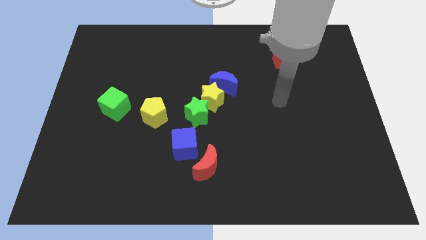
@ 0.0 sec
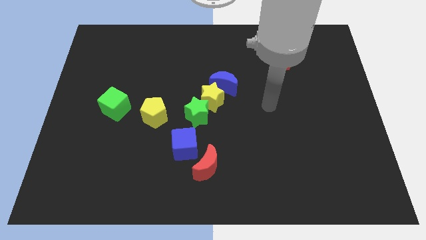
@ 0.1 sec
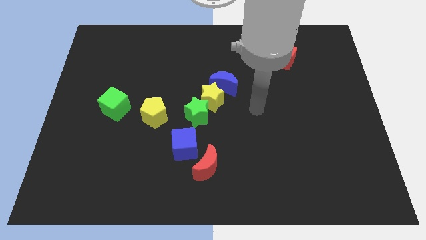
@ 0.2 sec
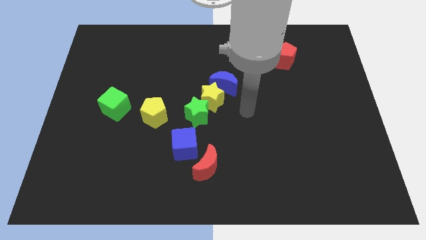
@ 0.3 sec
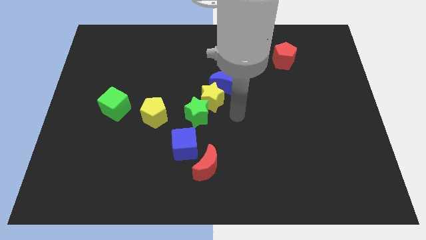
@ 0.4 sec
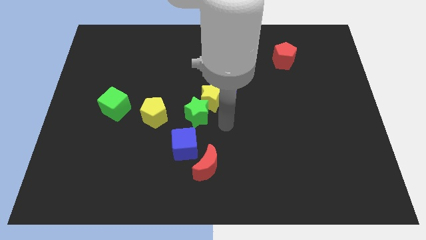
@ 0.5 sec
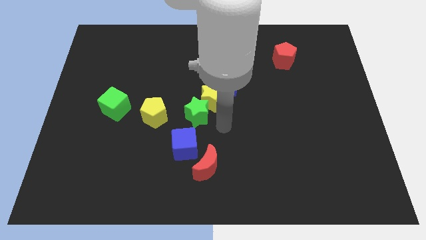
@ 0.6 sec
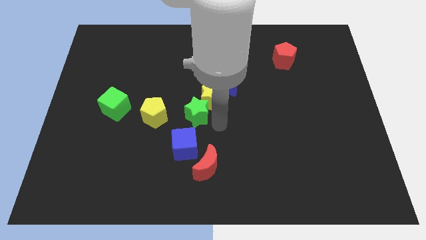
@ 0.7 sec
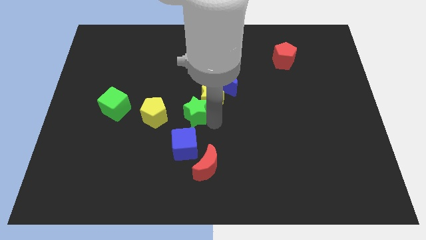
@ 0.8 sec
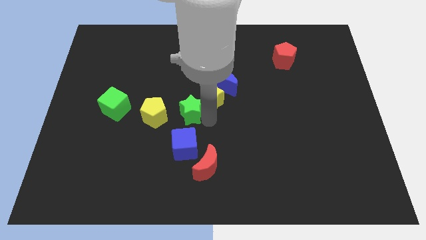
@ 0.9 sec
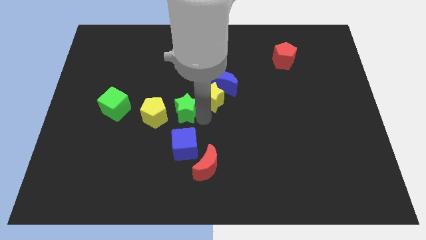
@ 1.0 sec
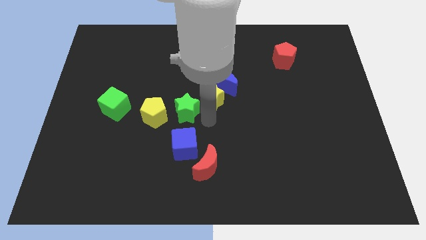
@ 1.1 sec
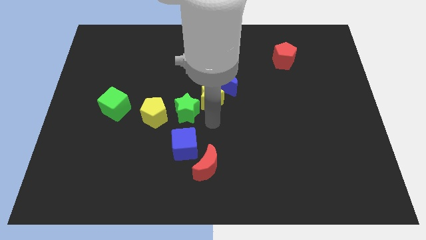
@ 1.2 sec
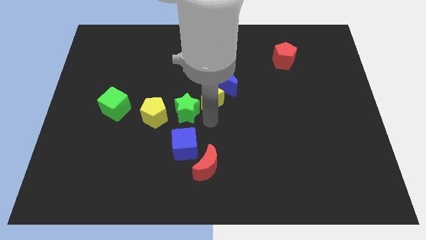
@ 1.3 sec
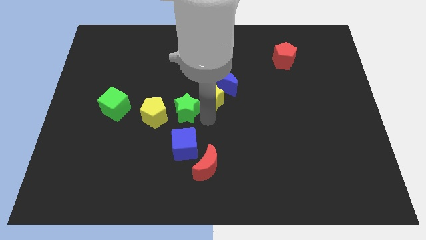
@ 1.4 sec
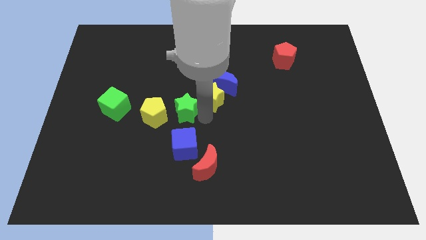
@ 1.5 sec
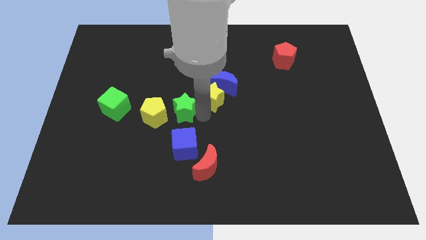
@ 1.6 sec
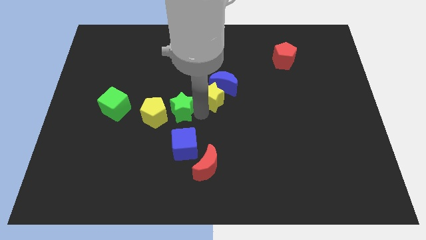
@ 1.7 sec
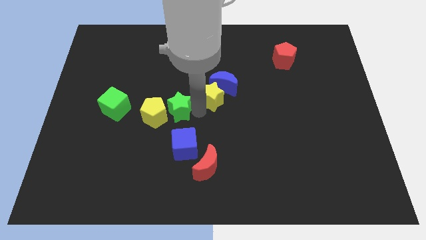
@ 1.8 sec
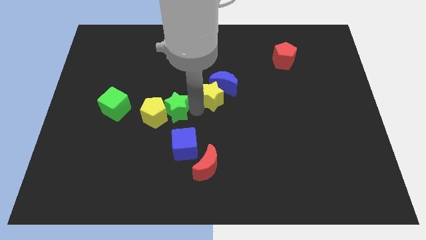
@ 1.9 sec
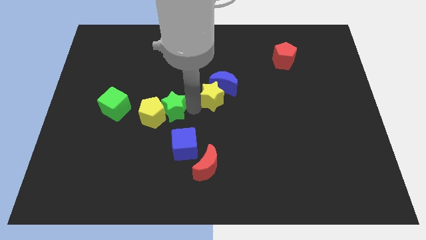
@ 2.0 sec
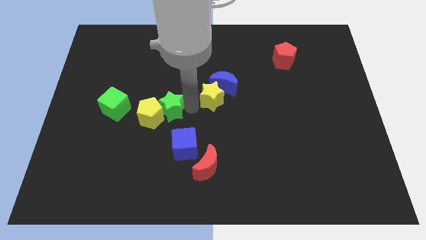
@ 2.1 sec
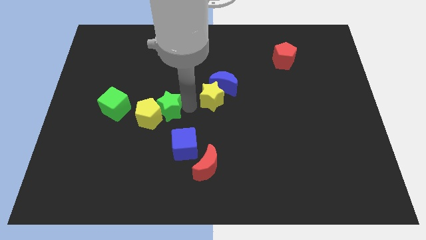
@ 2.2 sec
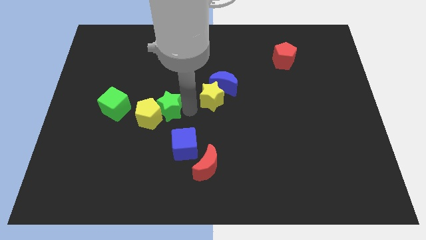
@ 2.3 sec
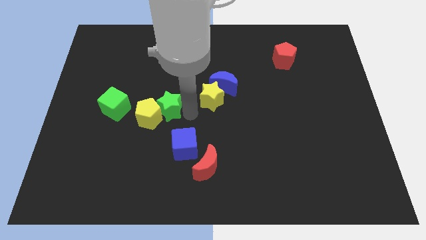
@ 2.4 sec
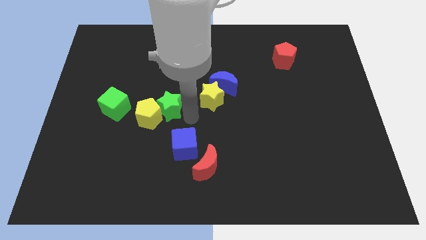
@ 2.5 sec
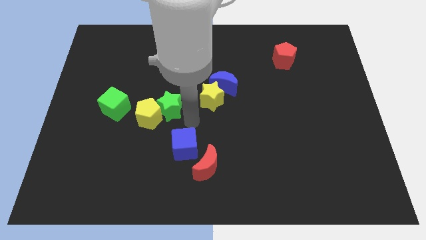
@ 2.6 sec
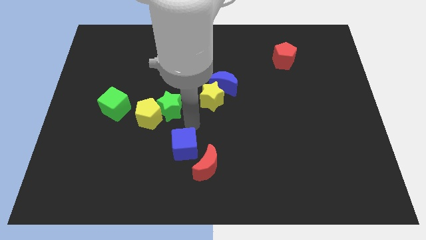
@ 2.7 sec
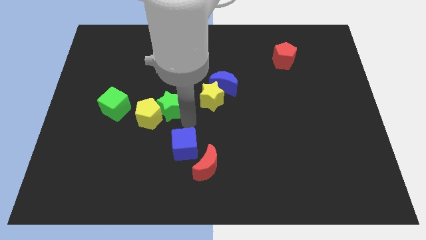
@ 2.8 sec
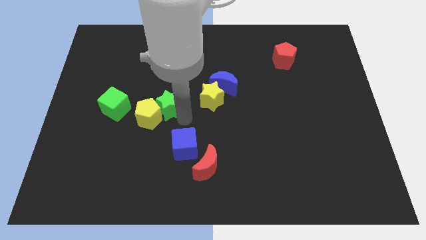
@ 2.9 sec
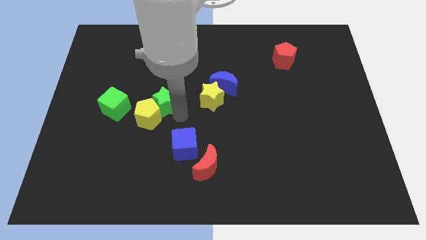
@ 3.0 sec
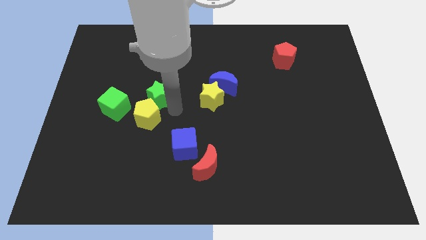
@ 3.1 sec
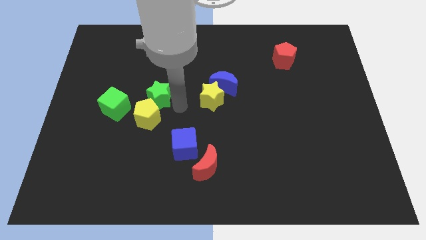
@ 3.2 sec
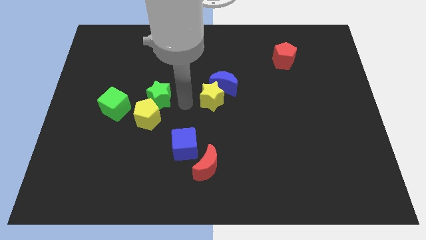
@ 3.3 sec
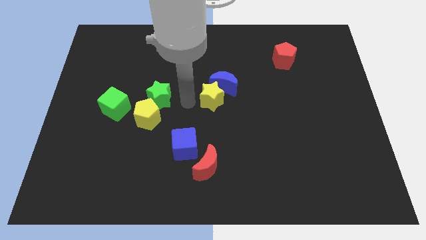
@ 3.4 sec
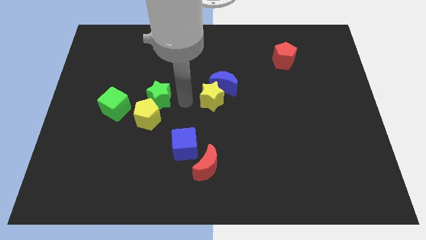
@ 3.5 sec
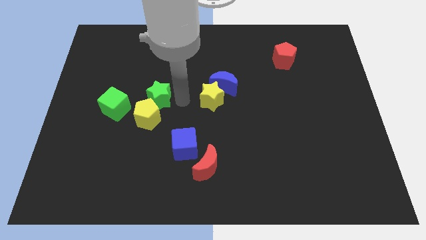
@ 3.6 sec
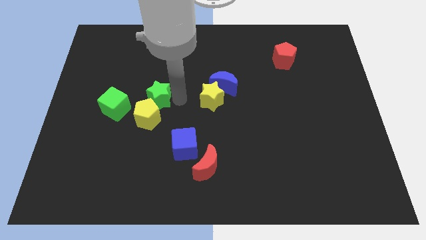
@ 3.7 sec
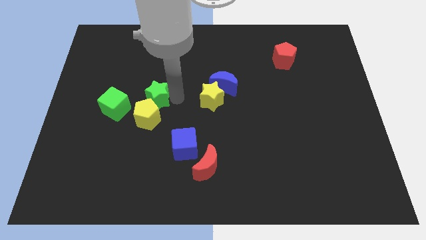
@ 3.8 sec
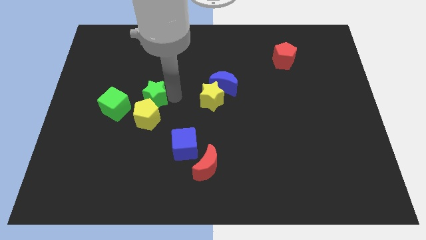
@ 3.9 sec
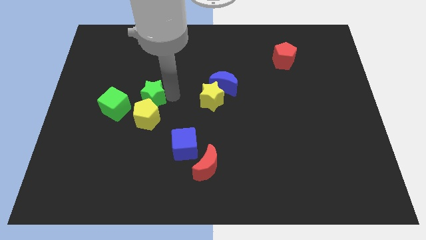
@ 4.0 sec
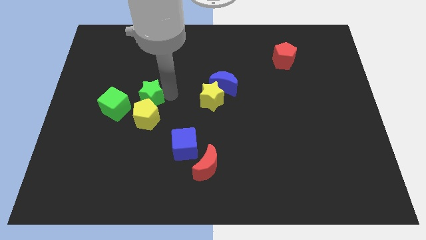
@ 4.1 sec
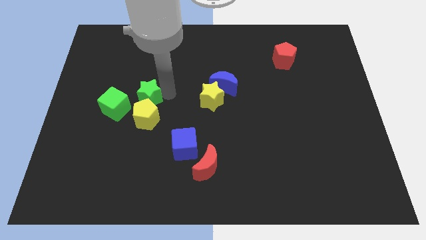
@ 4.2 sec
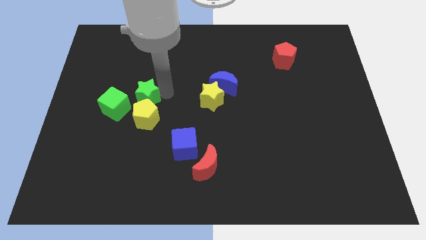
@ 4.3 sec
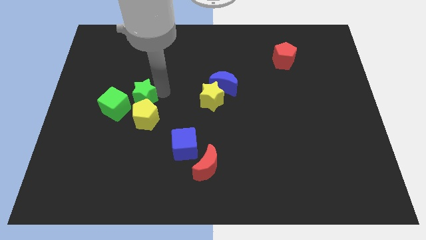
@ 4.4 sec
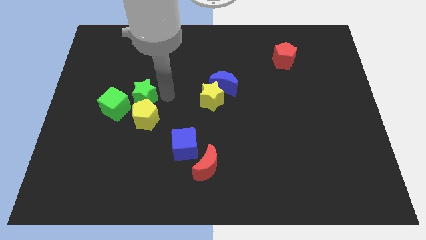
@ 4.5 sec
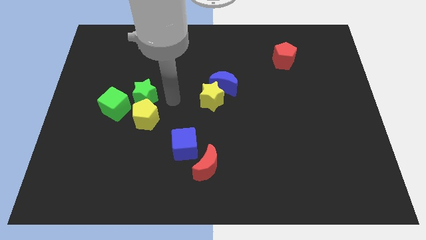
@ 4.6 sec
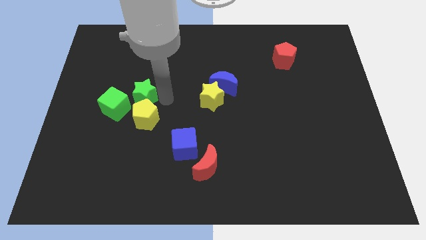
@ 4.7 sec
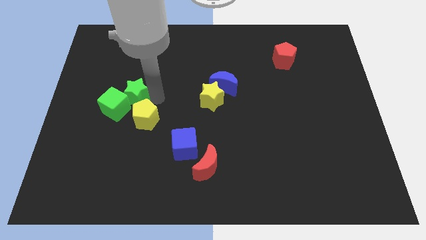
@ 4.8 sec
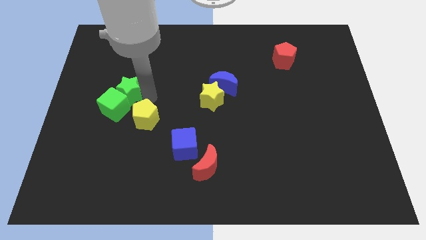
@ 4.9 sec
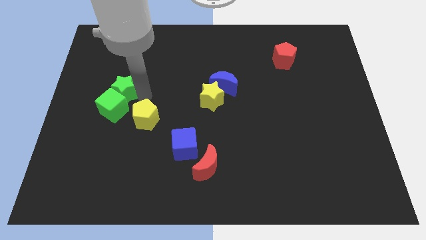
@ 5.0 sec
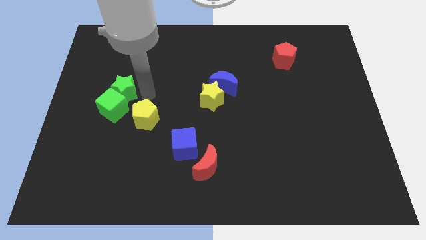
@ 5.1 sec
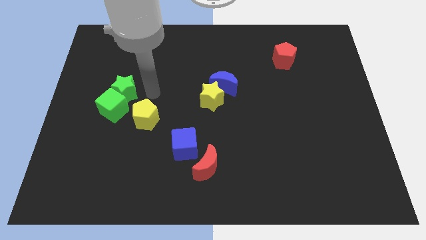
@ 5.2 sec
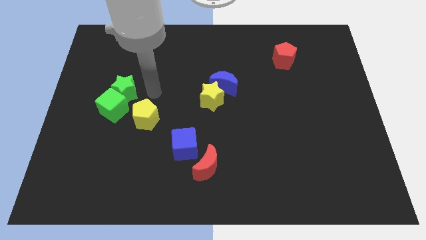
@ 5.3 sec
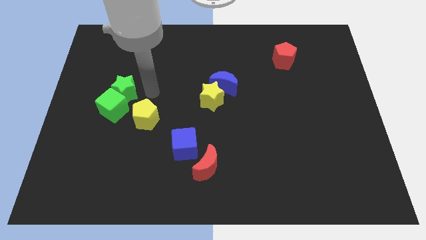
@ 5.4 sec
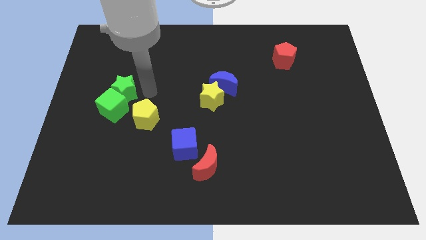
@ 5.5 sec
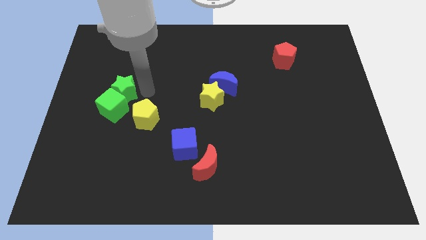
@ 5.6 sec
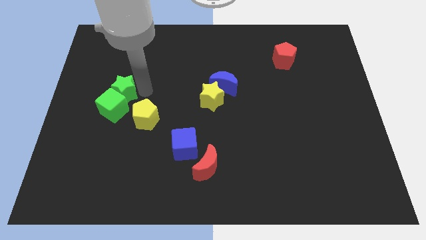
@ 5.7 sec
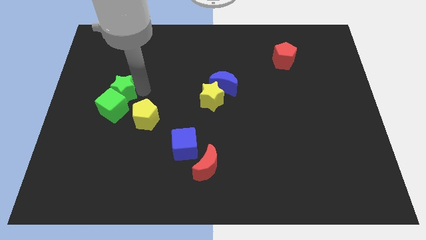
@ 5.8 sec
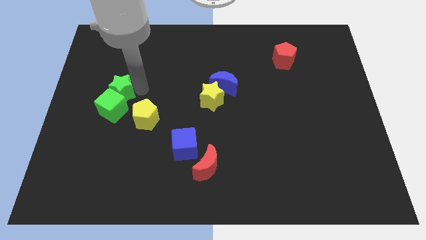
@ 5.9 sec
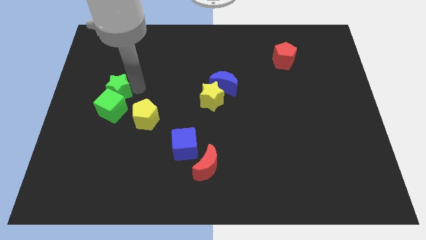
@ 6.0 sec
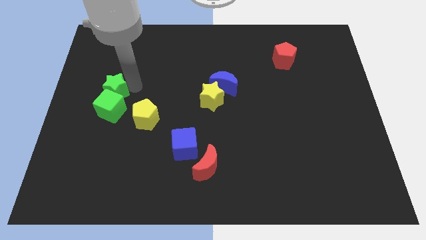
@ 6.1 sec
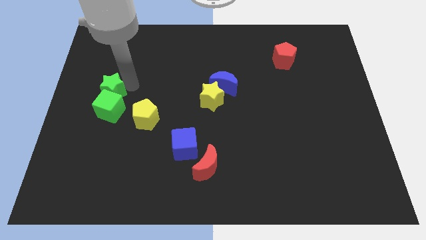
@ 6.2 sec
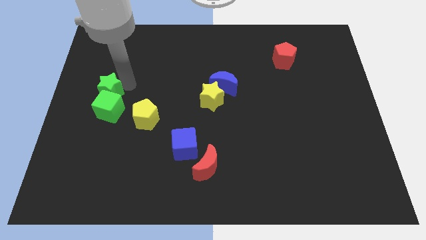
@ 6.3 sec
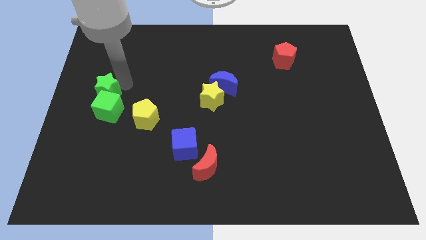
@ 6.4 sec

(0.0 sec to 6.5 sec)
push the green star to the left side of the board

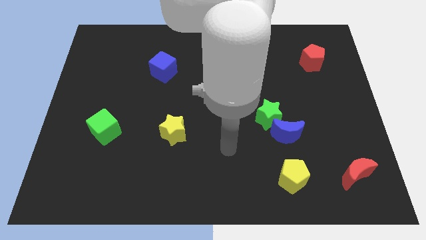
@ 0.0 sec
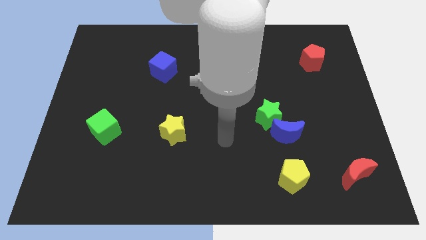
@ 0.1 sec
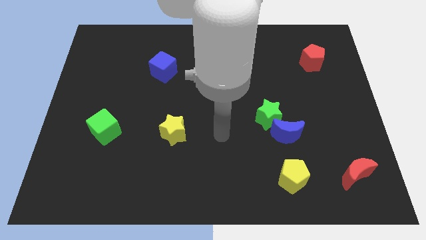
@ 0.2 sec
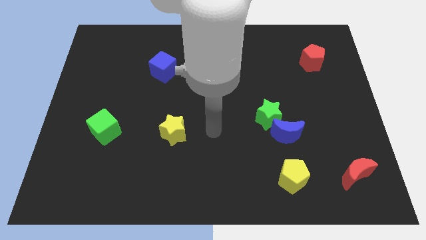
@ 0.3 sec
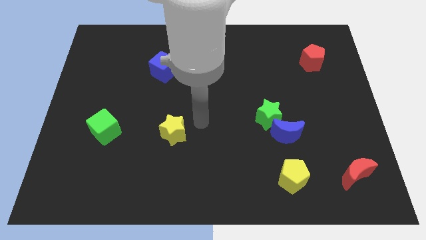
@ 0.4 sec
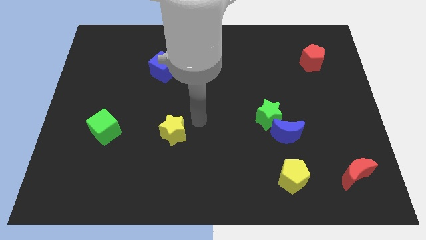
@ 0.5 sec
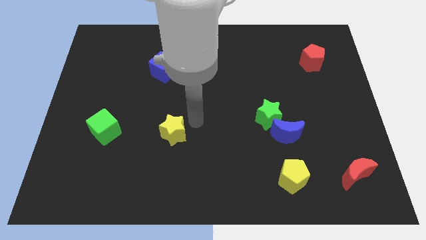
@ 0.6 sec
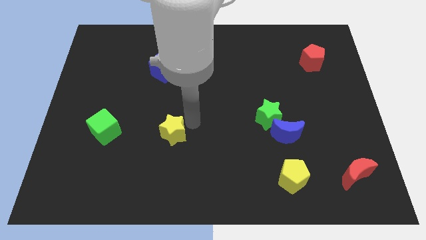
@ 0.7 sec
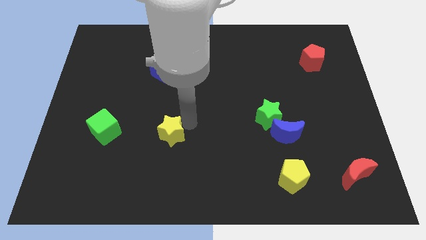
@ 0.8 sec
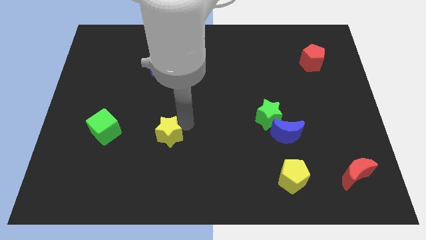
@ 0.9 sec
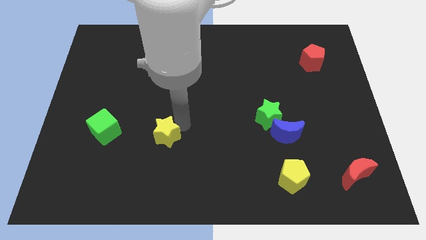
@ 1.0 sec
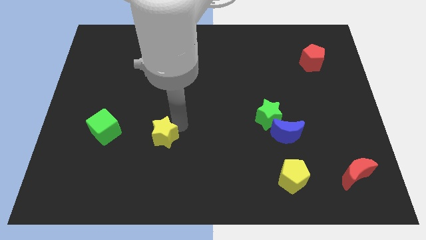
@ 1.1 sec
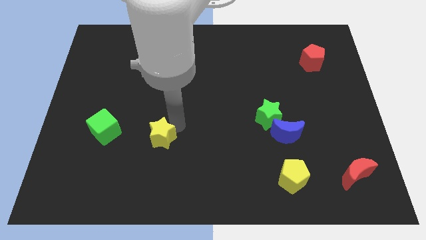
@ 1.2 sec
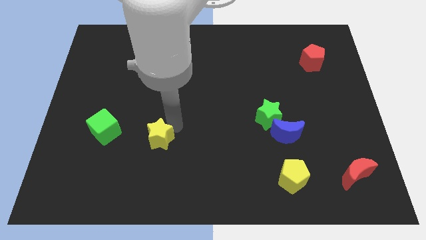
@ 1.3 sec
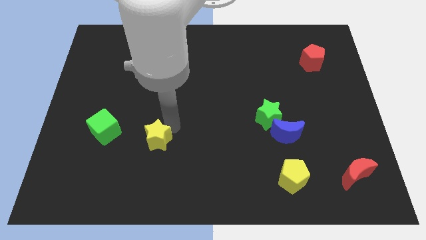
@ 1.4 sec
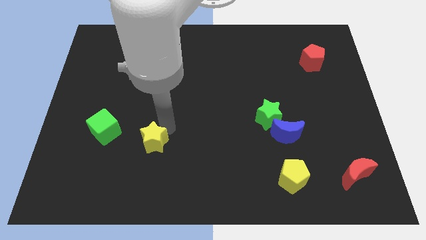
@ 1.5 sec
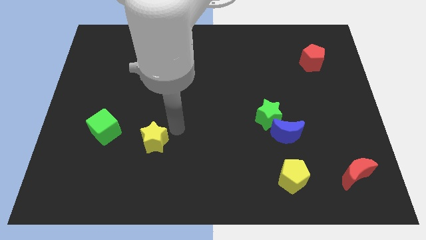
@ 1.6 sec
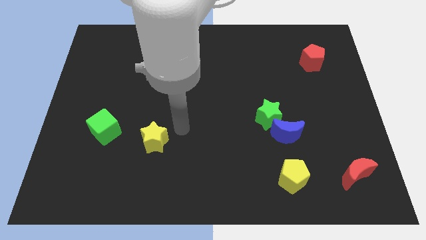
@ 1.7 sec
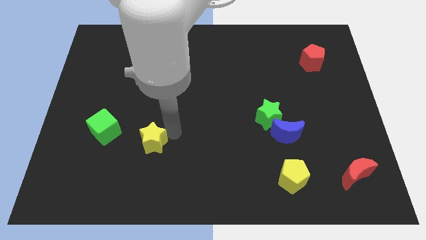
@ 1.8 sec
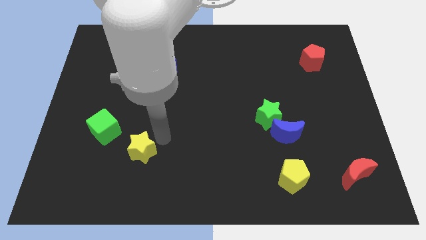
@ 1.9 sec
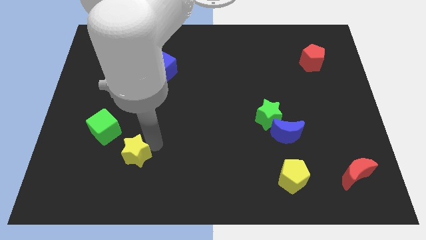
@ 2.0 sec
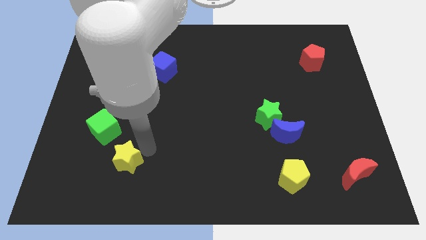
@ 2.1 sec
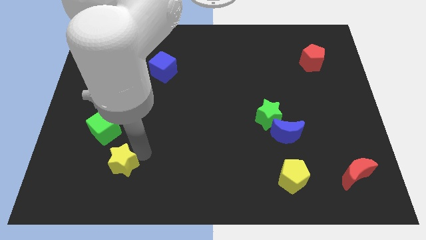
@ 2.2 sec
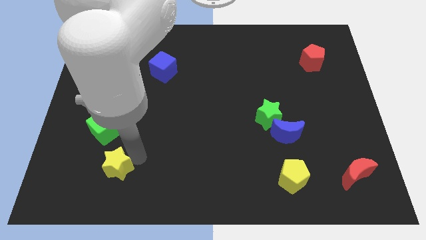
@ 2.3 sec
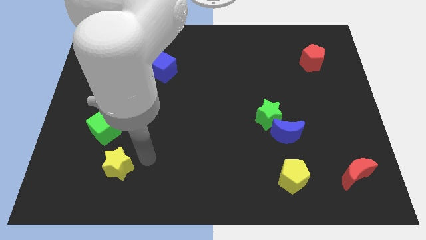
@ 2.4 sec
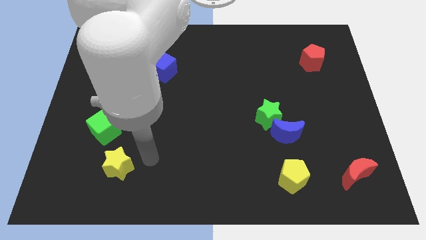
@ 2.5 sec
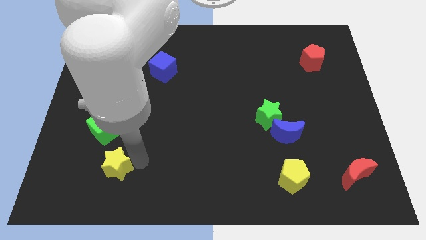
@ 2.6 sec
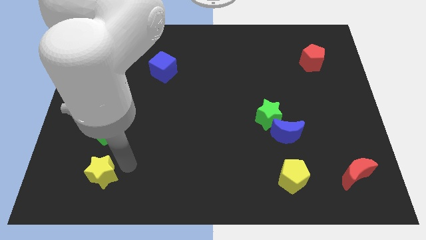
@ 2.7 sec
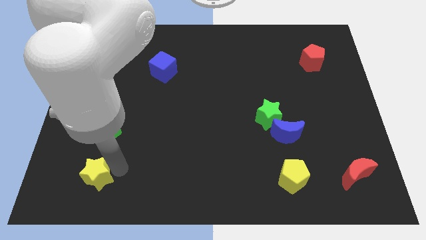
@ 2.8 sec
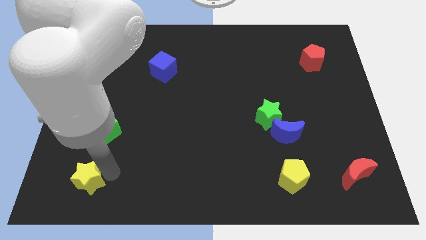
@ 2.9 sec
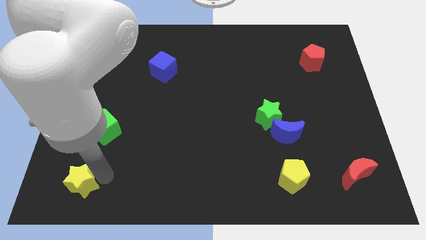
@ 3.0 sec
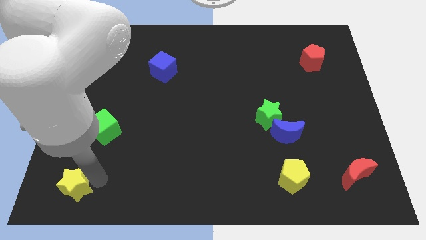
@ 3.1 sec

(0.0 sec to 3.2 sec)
put the yellow star to the lower left corner
